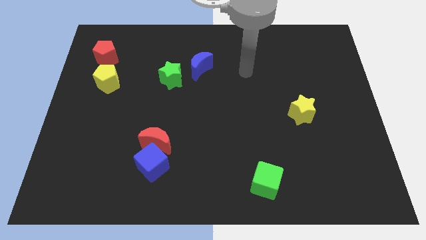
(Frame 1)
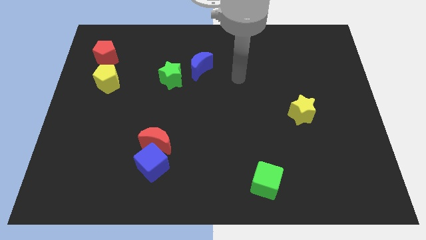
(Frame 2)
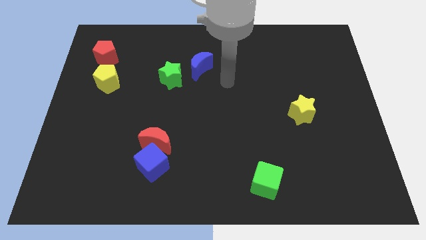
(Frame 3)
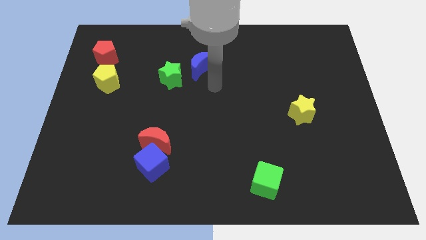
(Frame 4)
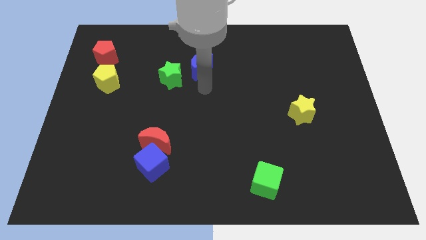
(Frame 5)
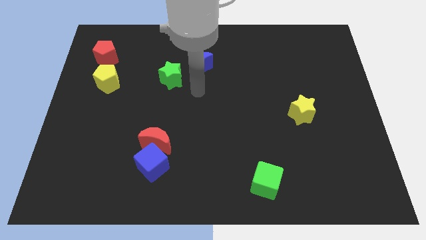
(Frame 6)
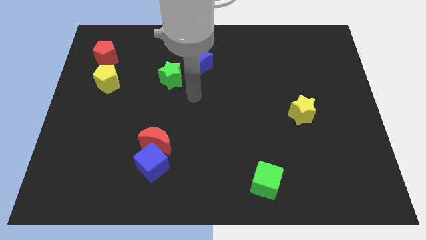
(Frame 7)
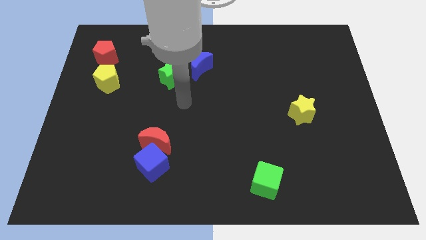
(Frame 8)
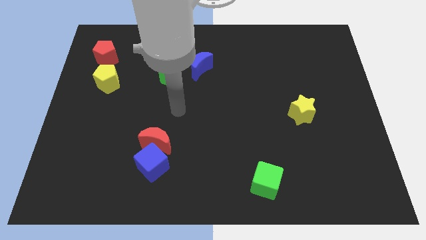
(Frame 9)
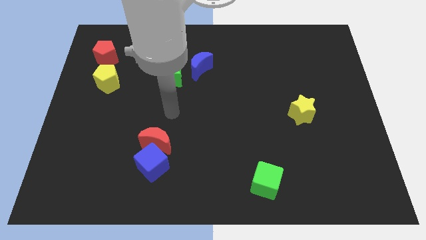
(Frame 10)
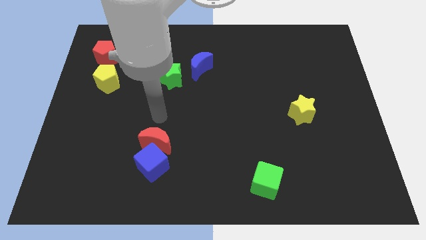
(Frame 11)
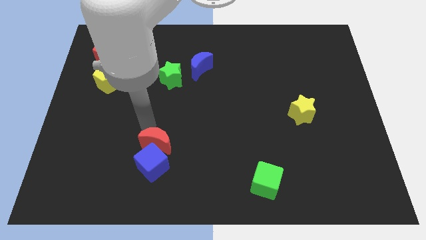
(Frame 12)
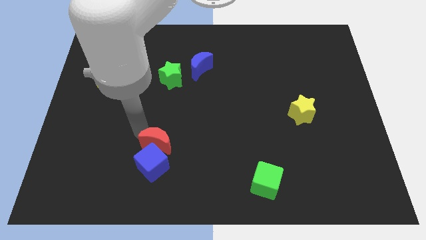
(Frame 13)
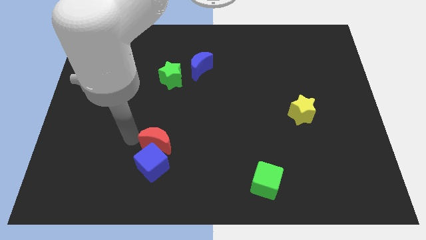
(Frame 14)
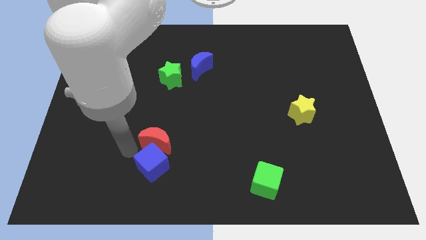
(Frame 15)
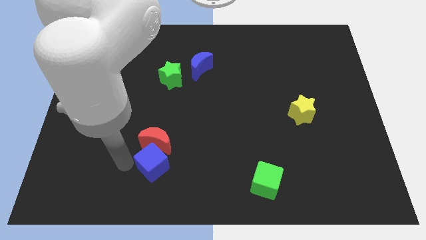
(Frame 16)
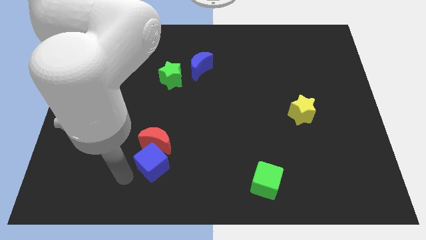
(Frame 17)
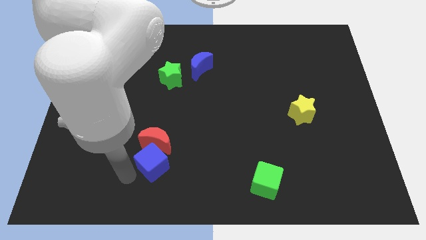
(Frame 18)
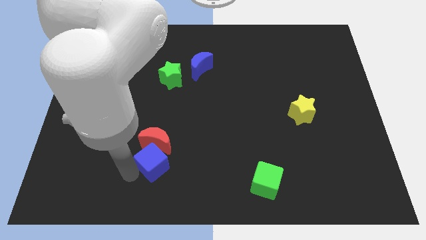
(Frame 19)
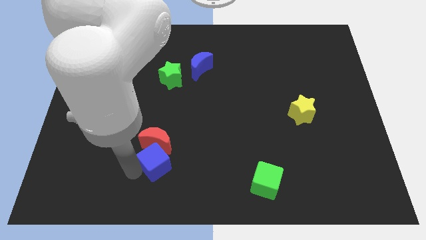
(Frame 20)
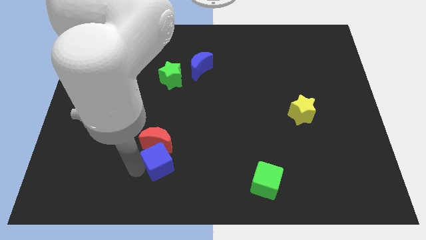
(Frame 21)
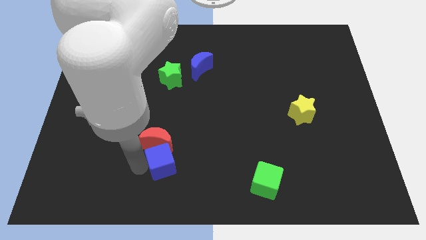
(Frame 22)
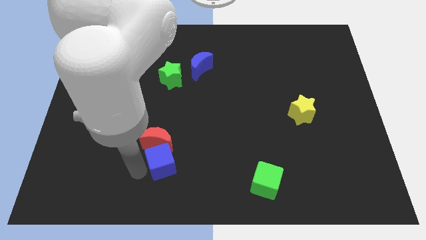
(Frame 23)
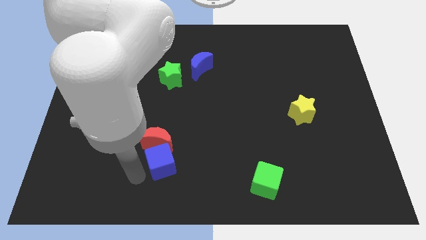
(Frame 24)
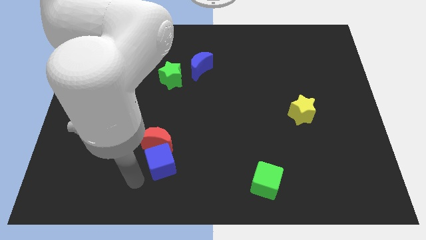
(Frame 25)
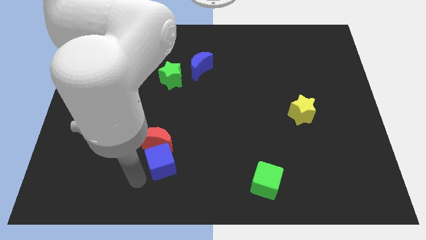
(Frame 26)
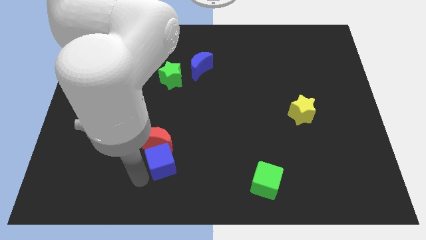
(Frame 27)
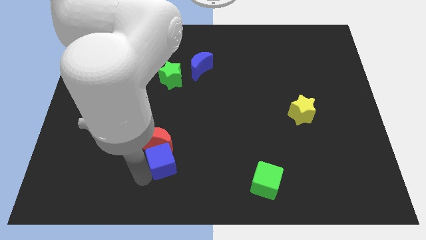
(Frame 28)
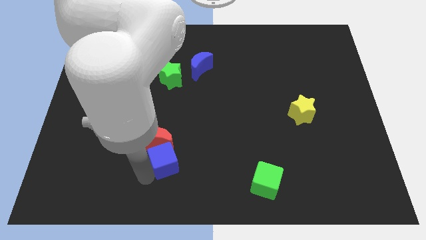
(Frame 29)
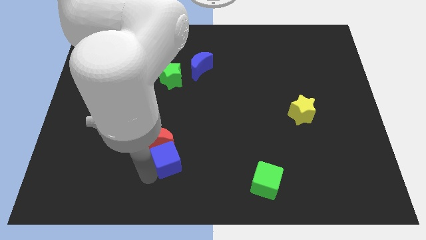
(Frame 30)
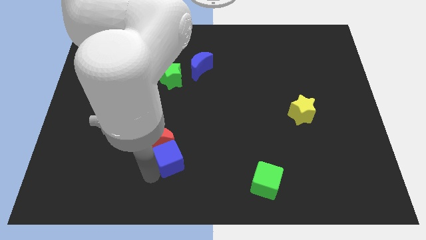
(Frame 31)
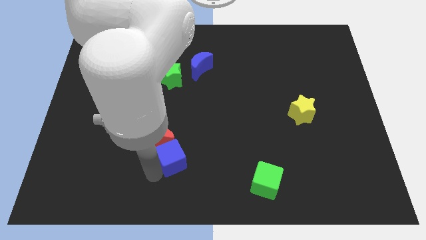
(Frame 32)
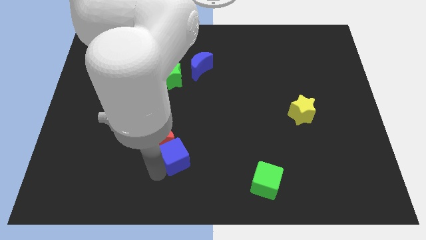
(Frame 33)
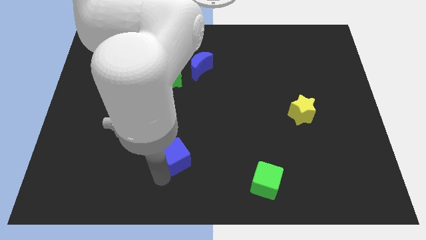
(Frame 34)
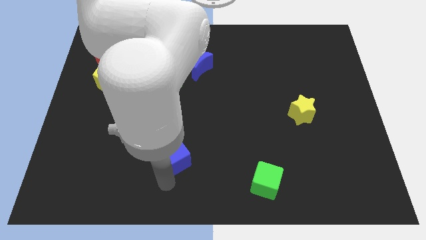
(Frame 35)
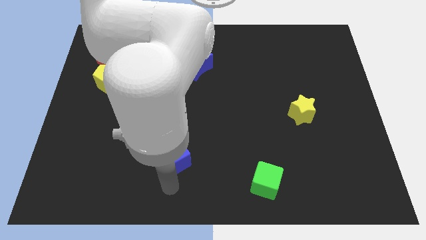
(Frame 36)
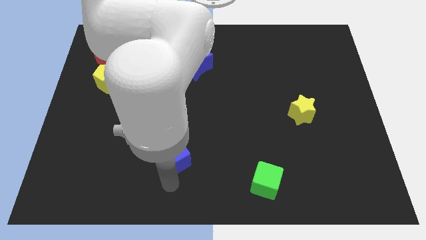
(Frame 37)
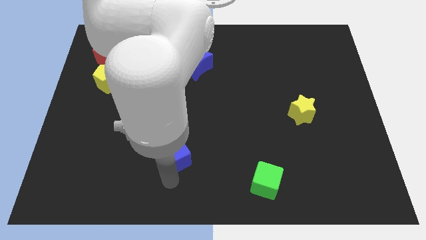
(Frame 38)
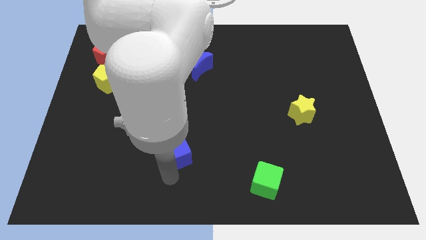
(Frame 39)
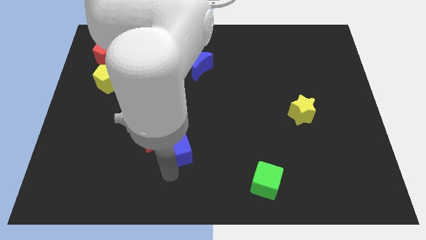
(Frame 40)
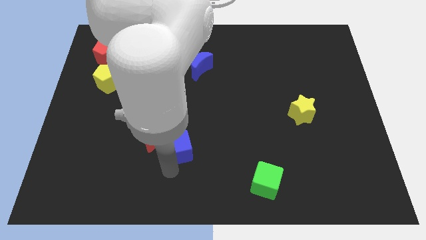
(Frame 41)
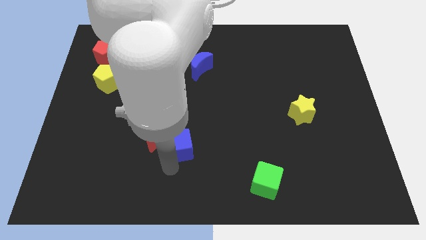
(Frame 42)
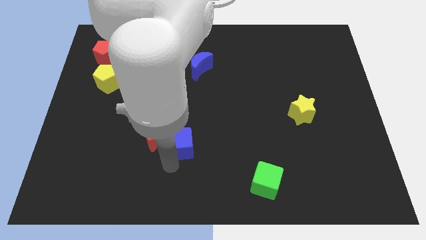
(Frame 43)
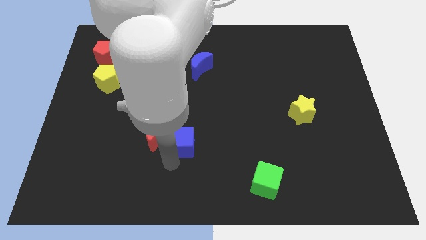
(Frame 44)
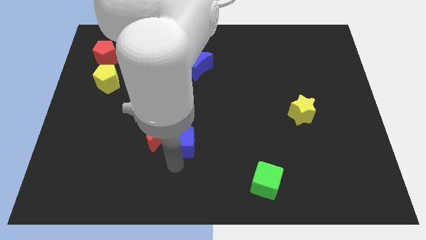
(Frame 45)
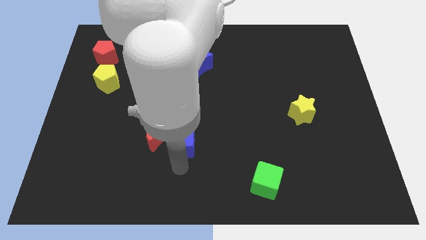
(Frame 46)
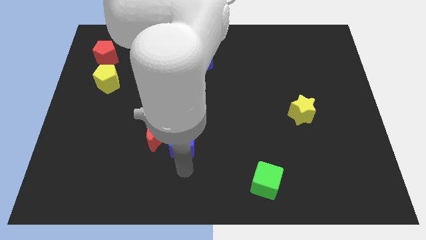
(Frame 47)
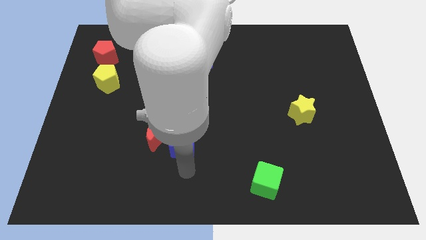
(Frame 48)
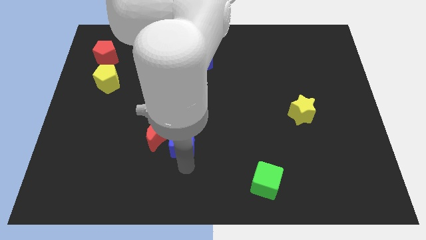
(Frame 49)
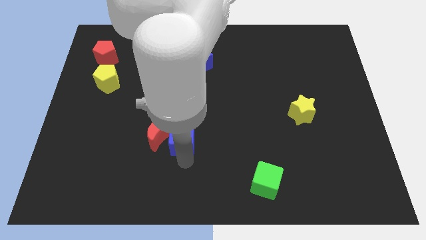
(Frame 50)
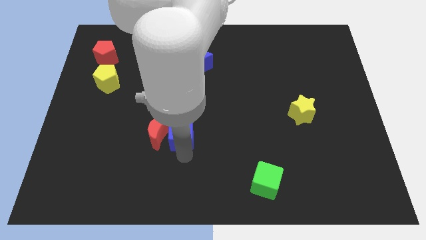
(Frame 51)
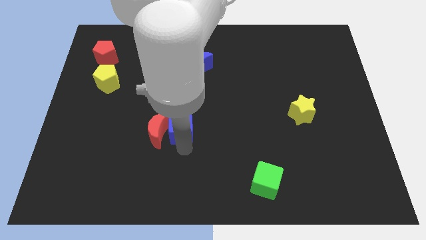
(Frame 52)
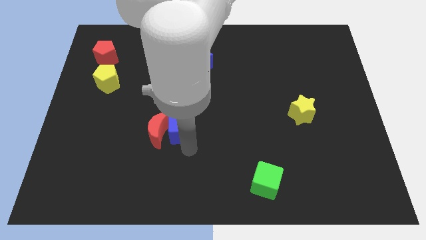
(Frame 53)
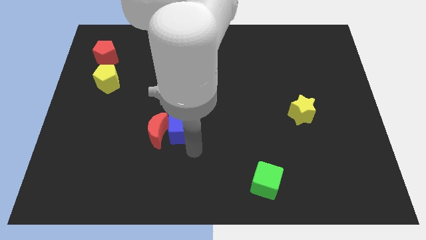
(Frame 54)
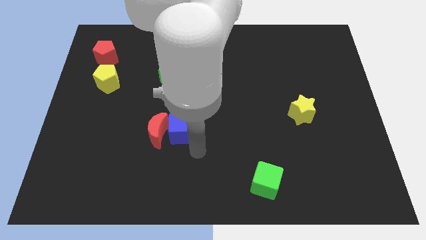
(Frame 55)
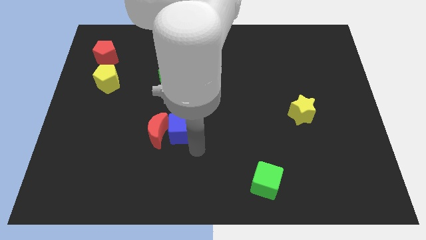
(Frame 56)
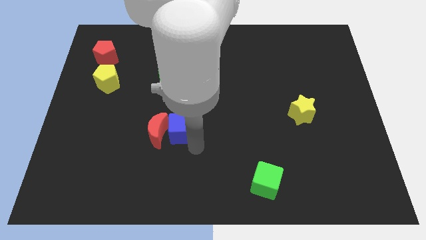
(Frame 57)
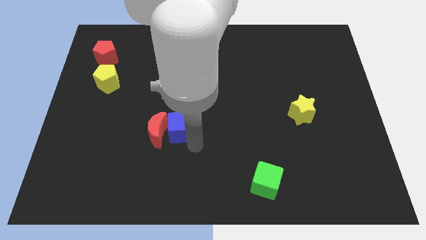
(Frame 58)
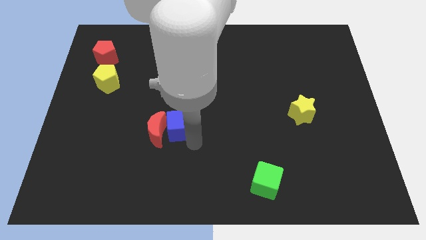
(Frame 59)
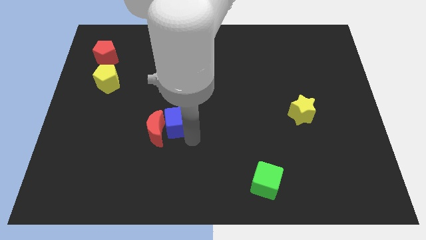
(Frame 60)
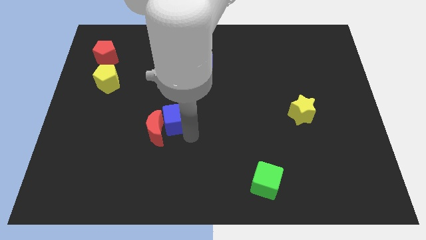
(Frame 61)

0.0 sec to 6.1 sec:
slide the blue cube to the top side of the red moon

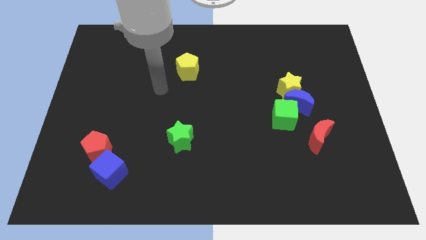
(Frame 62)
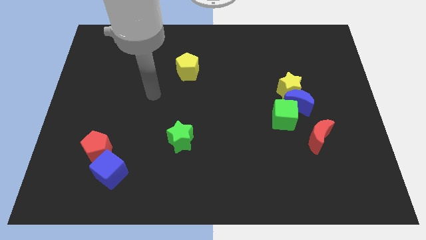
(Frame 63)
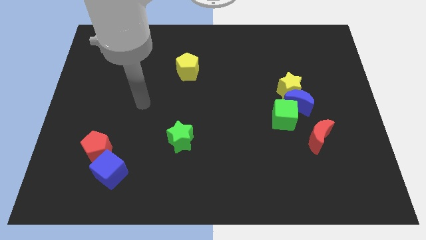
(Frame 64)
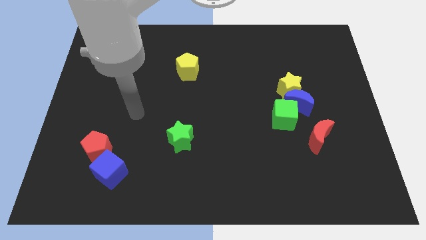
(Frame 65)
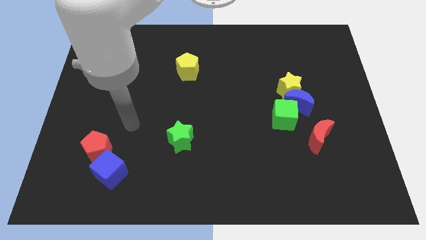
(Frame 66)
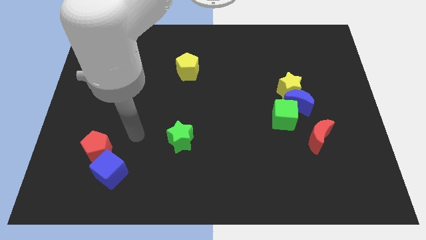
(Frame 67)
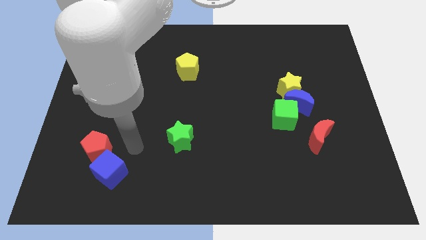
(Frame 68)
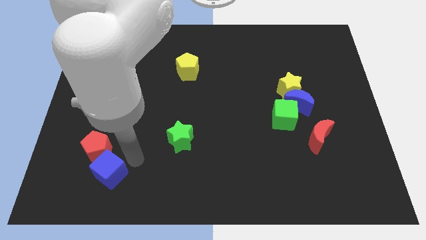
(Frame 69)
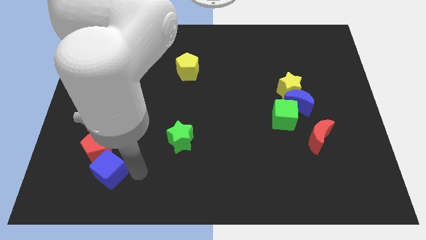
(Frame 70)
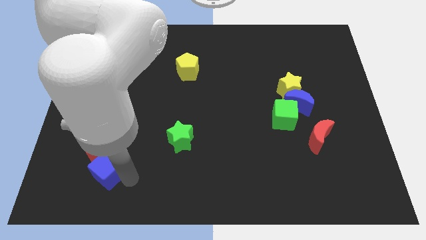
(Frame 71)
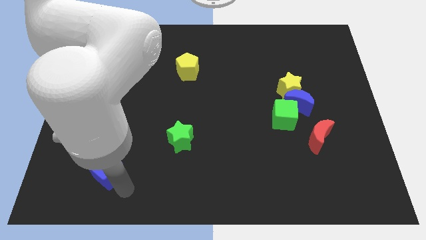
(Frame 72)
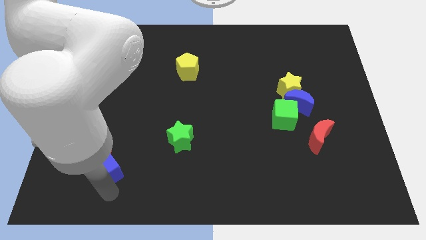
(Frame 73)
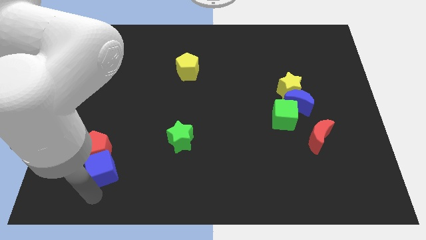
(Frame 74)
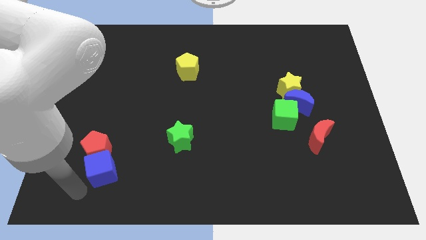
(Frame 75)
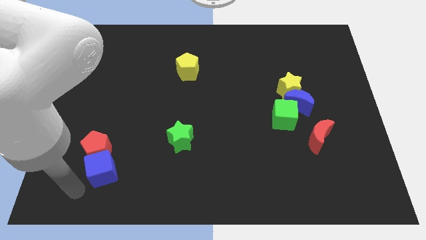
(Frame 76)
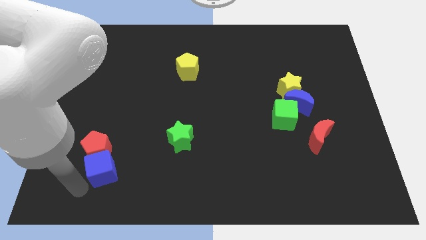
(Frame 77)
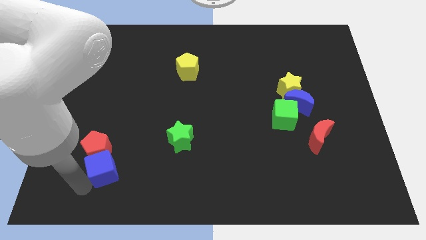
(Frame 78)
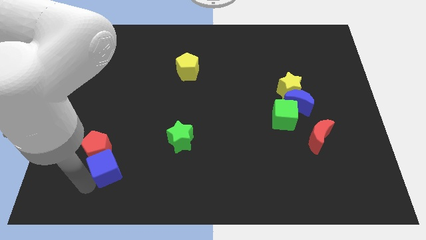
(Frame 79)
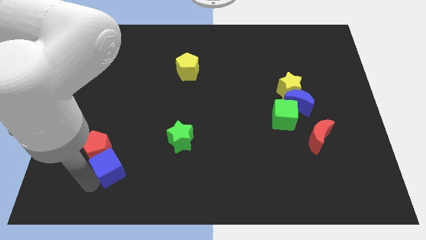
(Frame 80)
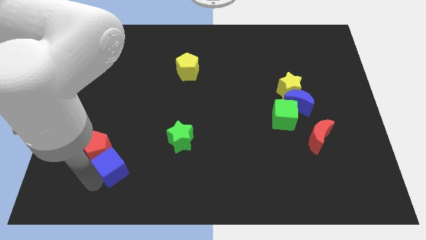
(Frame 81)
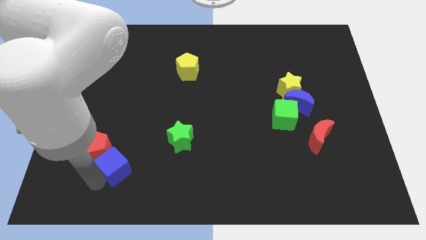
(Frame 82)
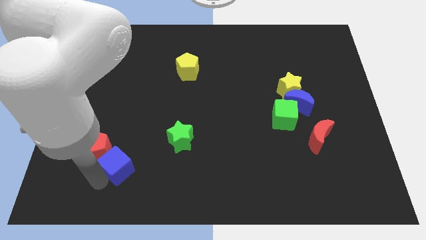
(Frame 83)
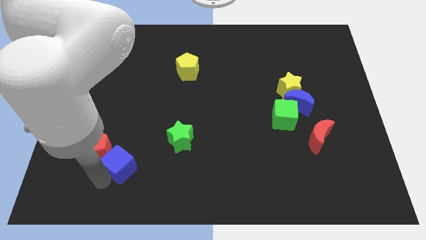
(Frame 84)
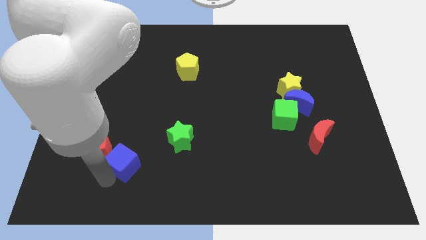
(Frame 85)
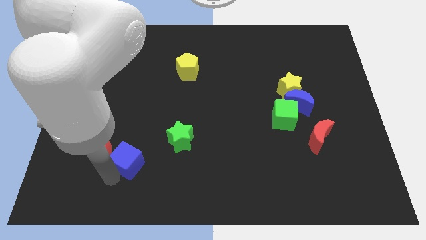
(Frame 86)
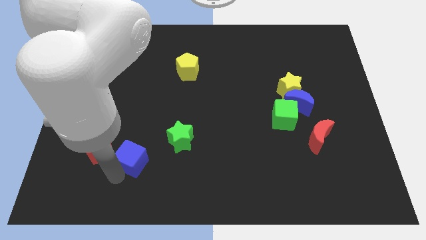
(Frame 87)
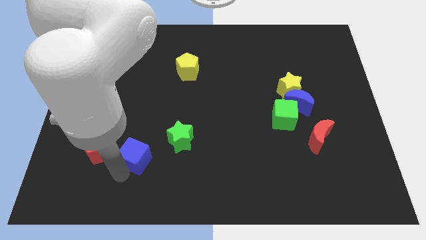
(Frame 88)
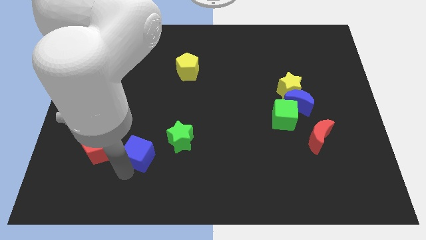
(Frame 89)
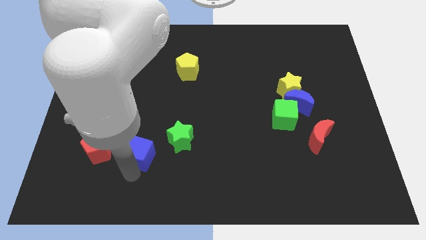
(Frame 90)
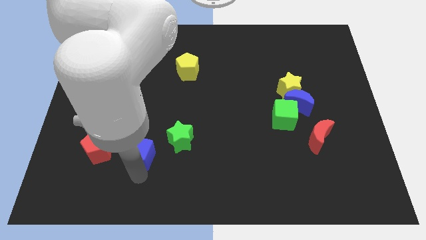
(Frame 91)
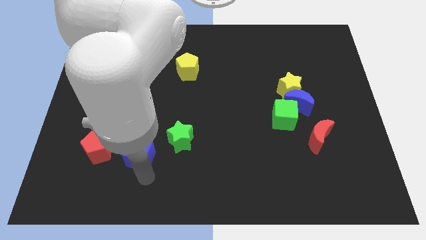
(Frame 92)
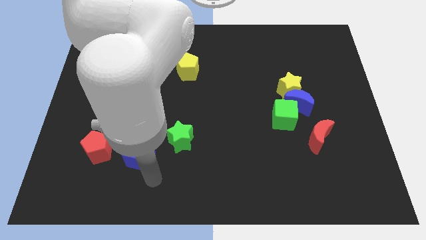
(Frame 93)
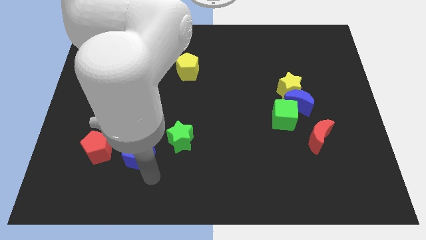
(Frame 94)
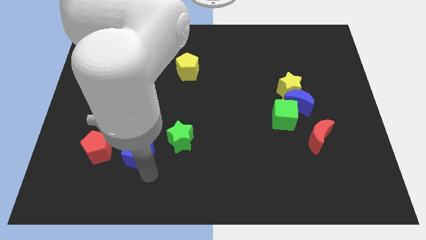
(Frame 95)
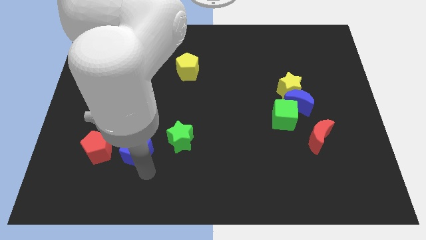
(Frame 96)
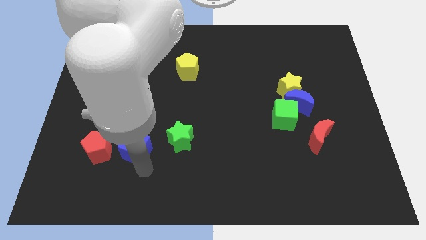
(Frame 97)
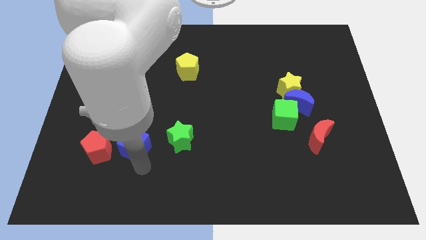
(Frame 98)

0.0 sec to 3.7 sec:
slide the blue cube to the top right of the red pentagon
